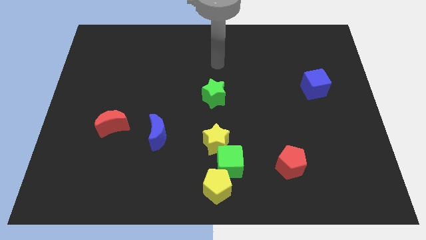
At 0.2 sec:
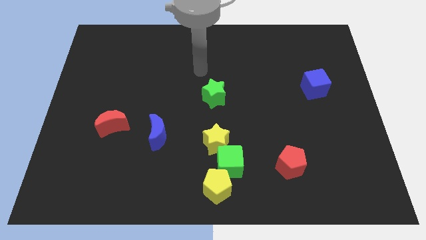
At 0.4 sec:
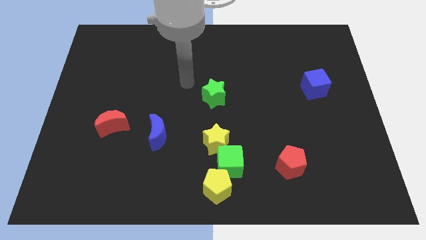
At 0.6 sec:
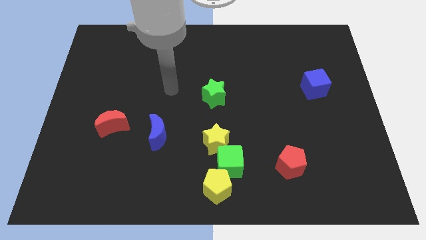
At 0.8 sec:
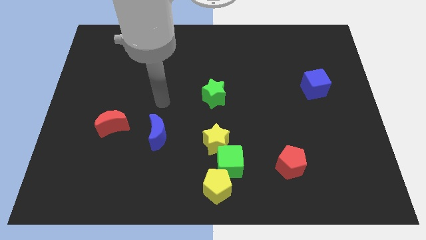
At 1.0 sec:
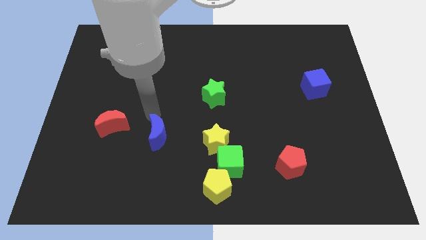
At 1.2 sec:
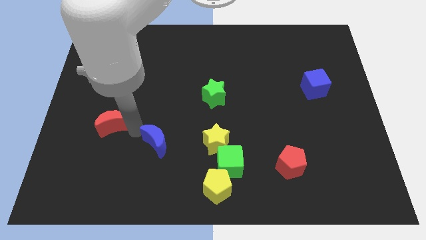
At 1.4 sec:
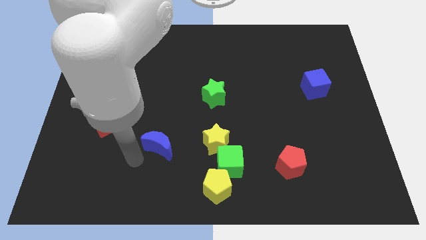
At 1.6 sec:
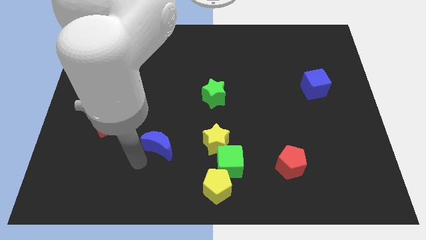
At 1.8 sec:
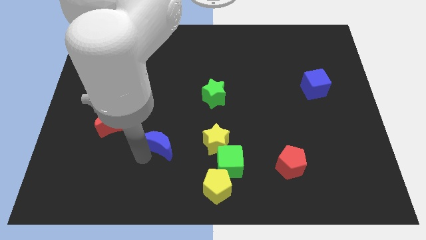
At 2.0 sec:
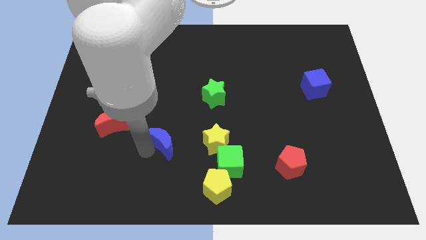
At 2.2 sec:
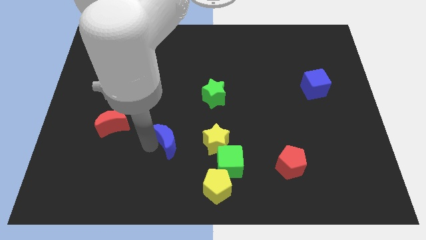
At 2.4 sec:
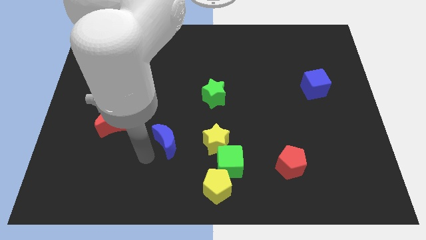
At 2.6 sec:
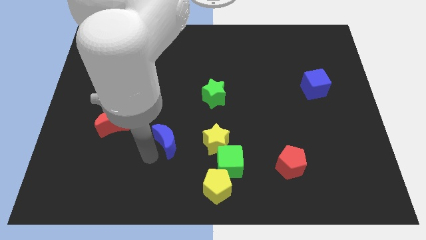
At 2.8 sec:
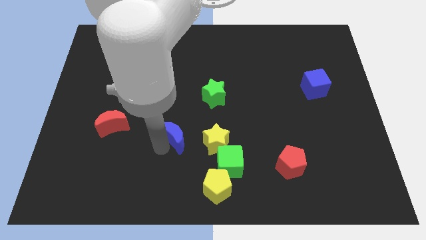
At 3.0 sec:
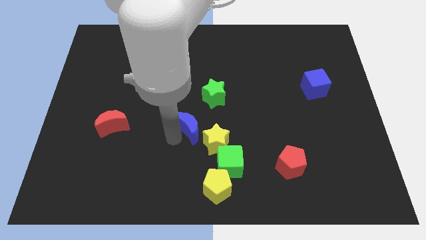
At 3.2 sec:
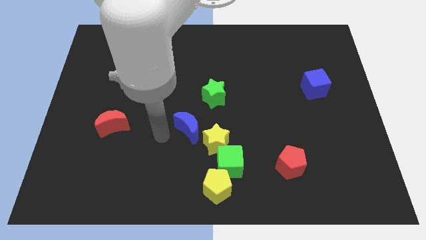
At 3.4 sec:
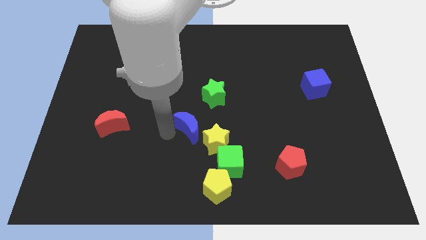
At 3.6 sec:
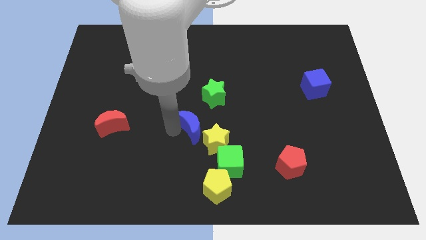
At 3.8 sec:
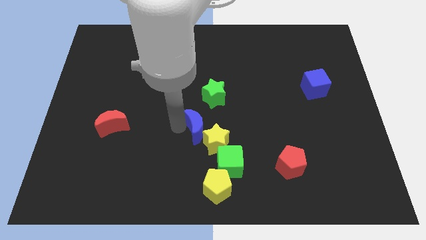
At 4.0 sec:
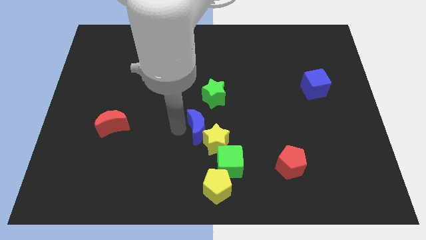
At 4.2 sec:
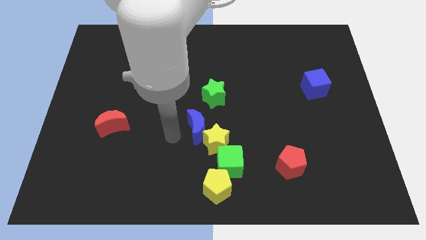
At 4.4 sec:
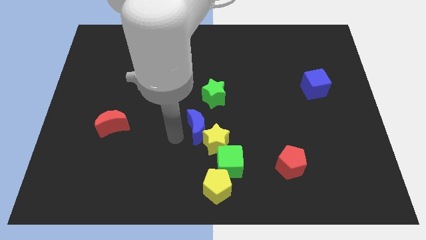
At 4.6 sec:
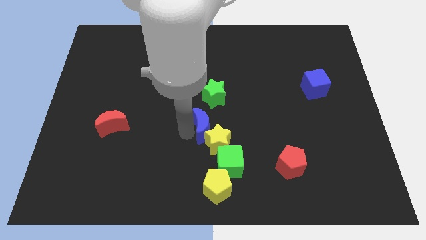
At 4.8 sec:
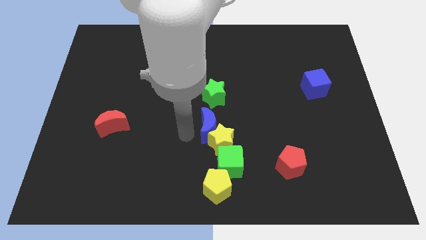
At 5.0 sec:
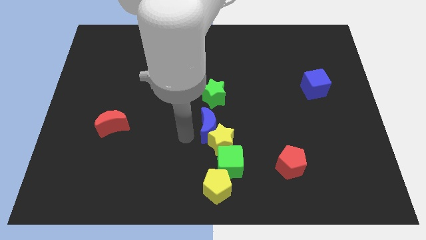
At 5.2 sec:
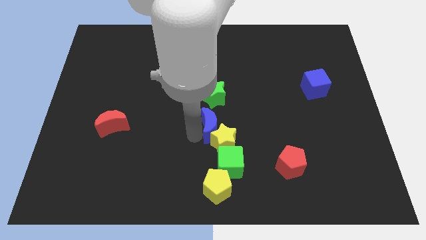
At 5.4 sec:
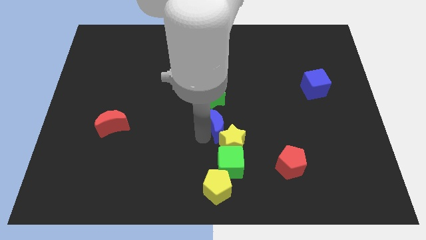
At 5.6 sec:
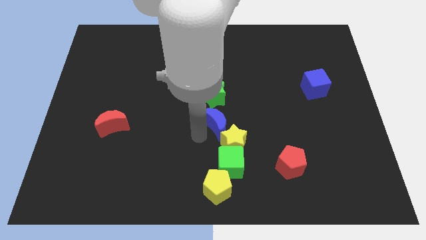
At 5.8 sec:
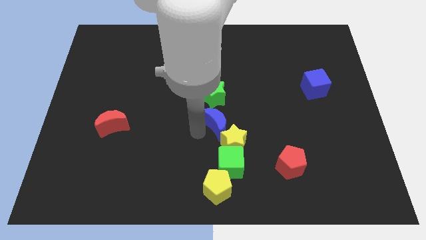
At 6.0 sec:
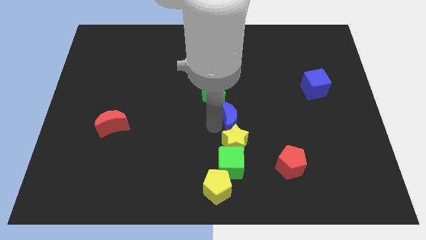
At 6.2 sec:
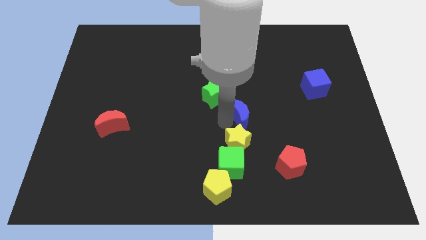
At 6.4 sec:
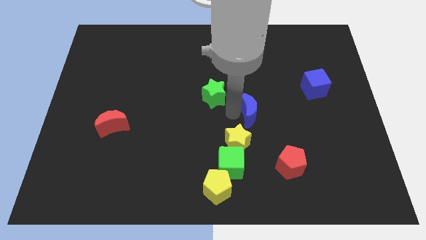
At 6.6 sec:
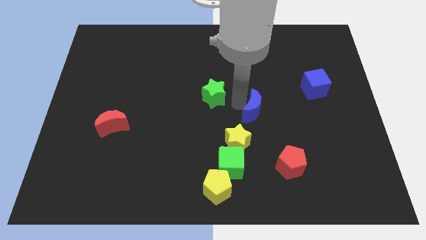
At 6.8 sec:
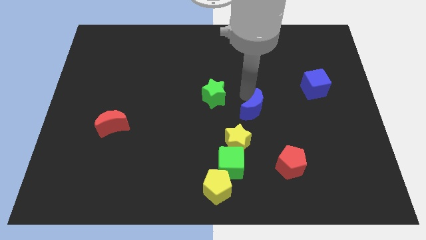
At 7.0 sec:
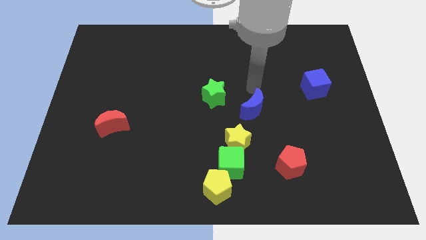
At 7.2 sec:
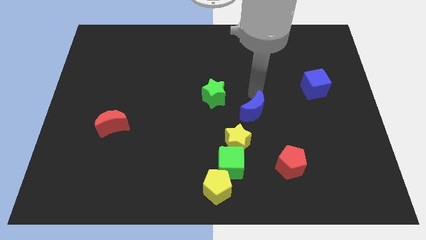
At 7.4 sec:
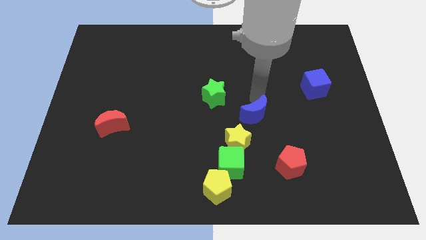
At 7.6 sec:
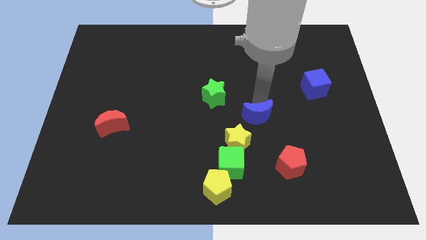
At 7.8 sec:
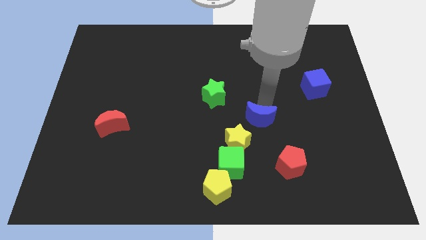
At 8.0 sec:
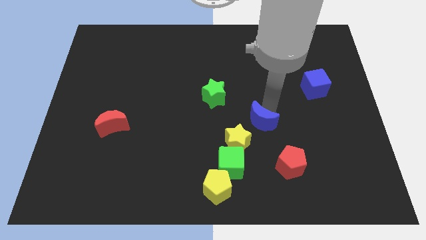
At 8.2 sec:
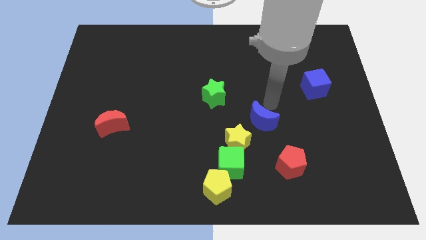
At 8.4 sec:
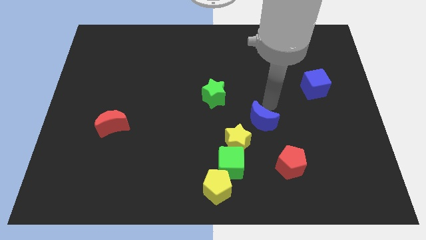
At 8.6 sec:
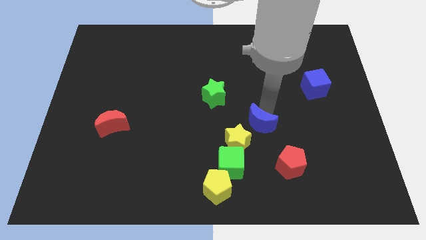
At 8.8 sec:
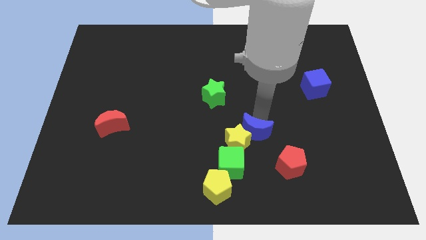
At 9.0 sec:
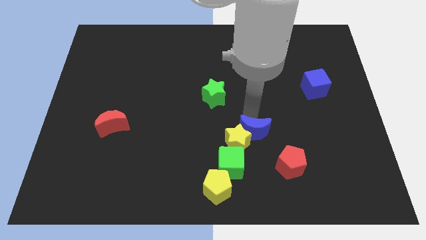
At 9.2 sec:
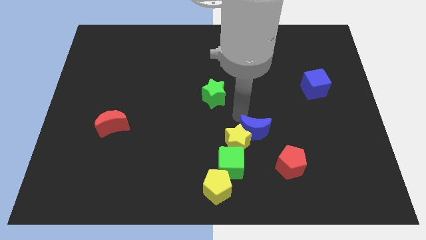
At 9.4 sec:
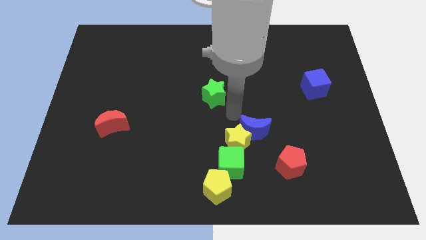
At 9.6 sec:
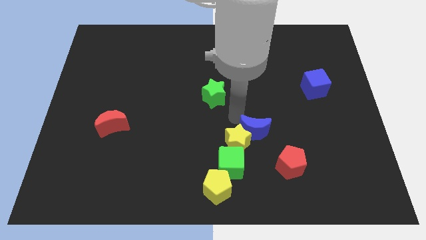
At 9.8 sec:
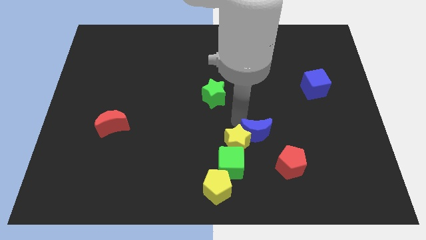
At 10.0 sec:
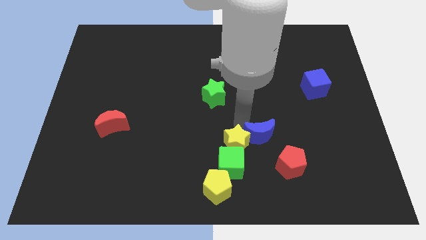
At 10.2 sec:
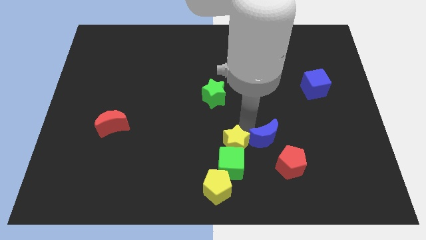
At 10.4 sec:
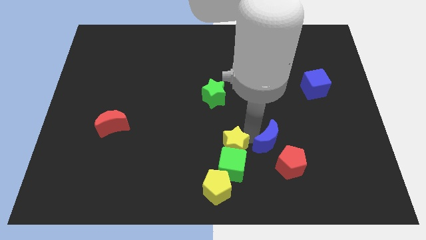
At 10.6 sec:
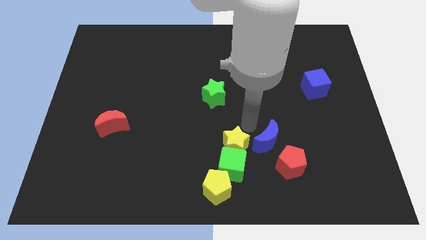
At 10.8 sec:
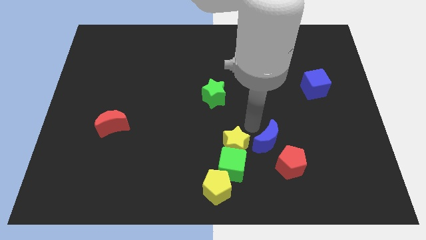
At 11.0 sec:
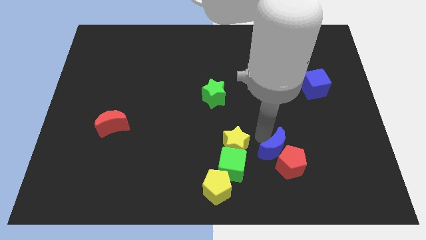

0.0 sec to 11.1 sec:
put the blue moon to the red pentagon

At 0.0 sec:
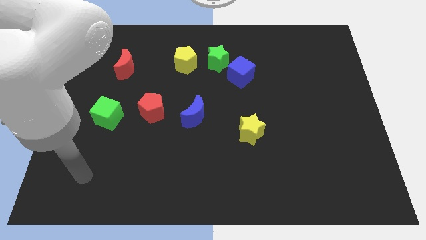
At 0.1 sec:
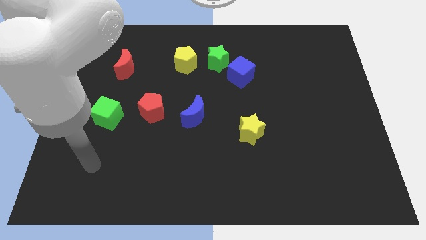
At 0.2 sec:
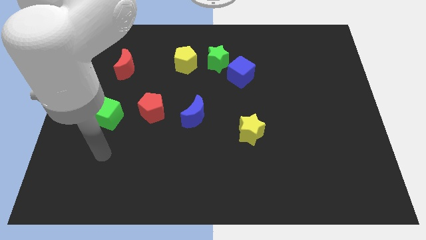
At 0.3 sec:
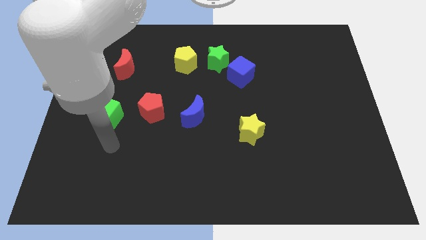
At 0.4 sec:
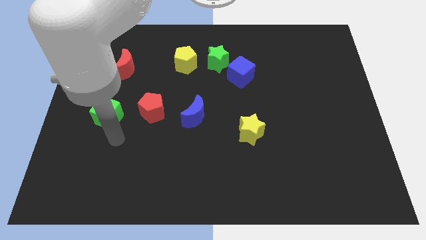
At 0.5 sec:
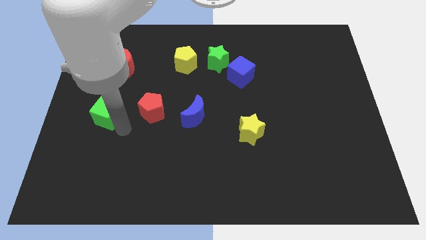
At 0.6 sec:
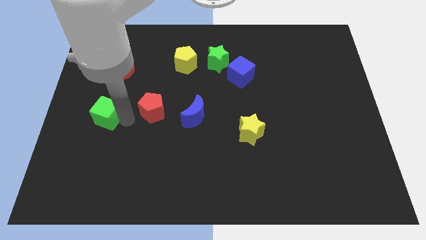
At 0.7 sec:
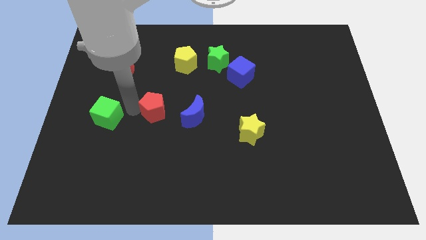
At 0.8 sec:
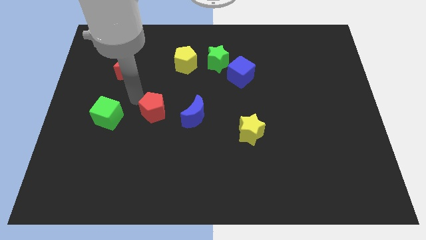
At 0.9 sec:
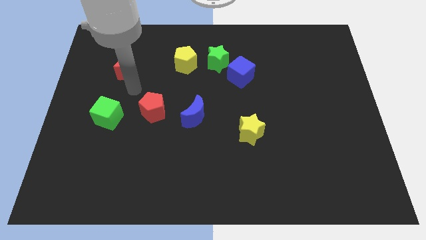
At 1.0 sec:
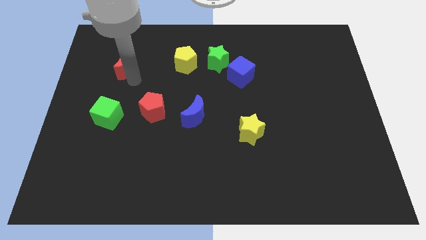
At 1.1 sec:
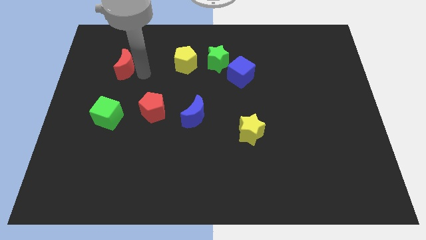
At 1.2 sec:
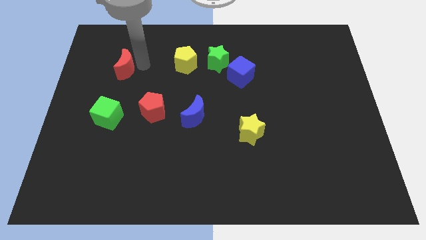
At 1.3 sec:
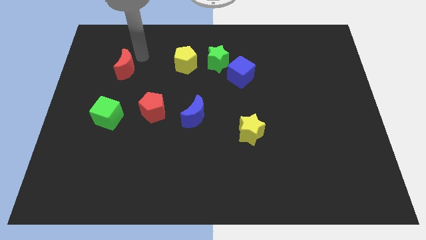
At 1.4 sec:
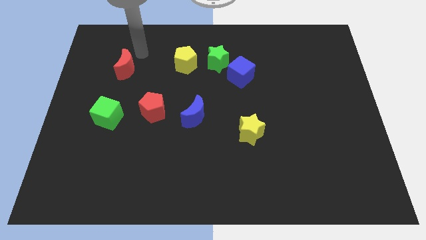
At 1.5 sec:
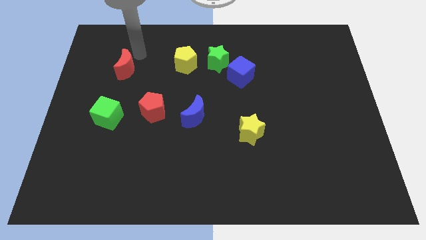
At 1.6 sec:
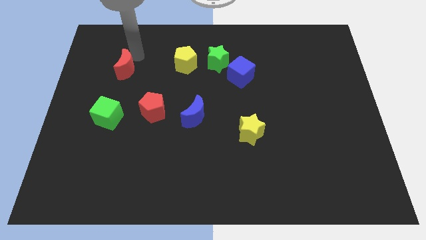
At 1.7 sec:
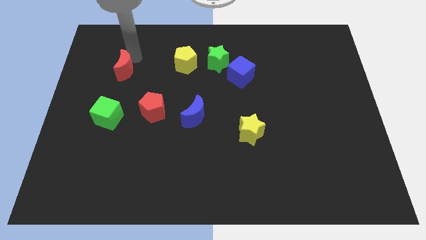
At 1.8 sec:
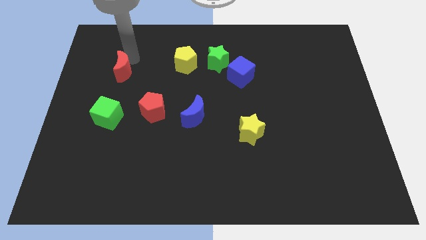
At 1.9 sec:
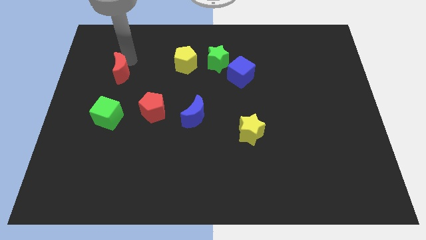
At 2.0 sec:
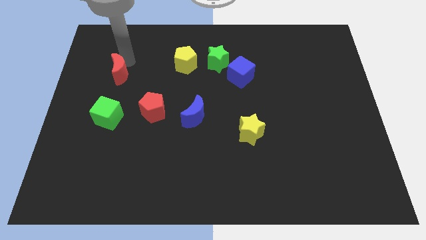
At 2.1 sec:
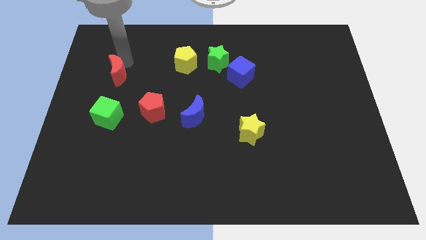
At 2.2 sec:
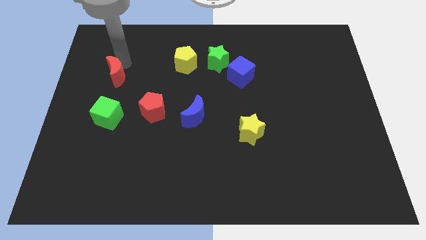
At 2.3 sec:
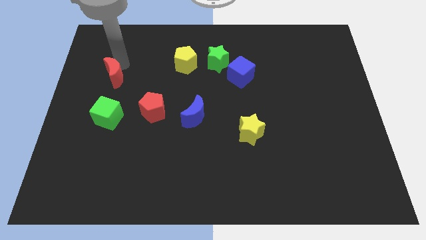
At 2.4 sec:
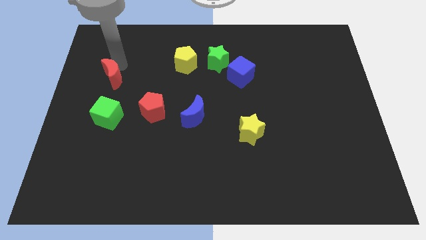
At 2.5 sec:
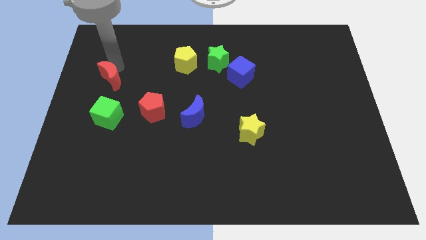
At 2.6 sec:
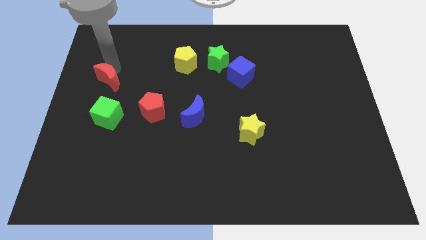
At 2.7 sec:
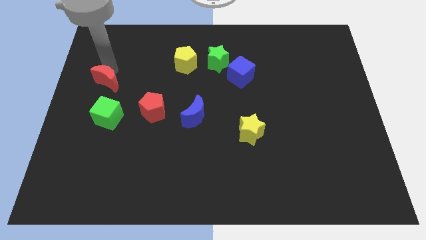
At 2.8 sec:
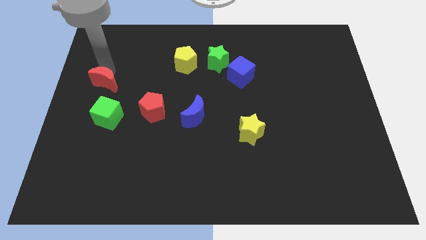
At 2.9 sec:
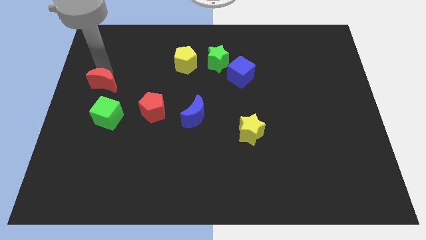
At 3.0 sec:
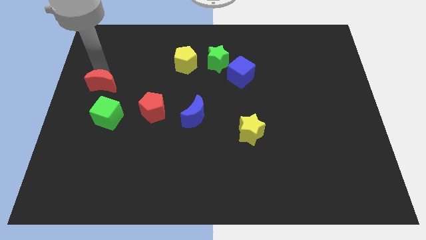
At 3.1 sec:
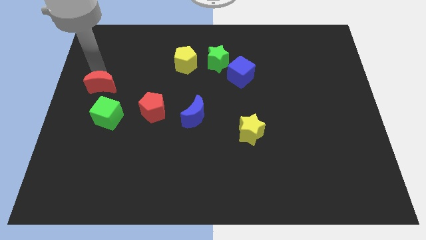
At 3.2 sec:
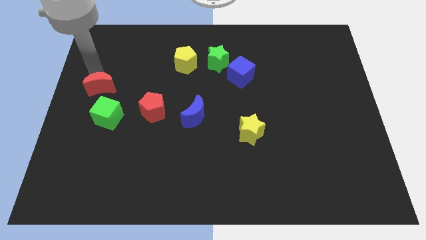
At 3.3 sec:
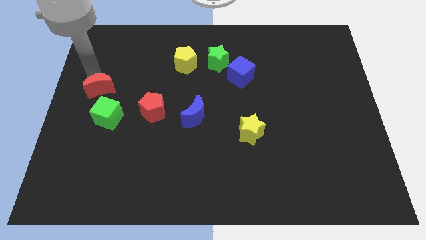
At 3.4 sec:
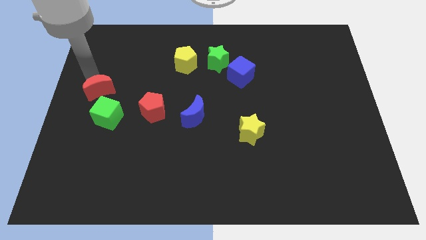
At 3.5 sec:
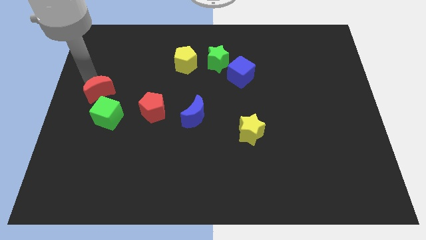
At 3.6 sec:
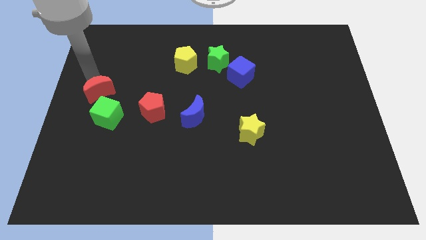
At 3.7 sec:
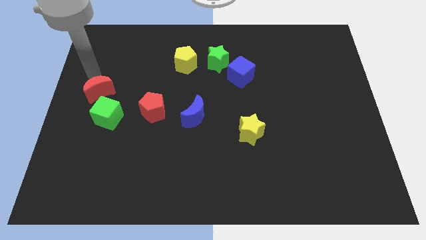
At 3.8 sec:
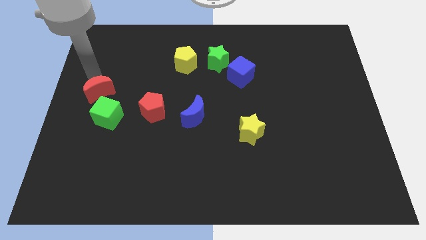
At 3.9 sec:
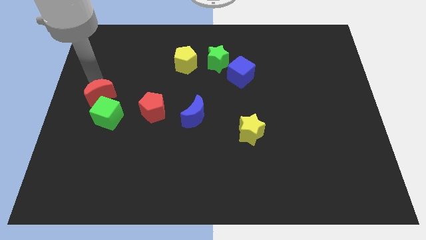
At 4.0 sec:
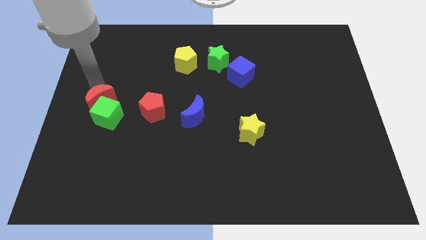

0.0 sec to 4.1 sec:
slide the red moon towards the green cube
